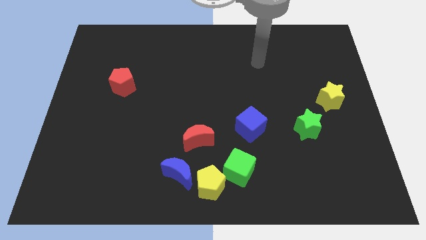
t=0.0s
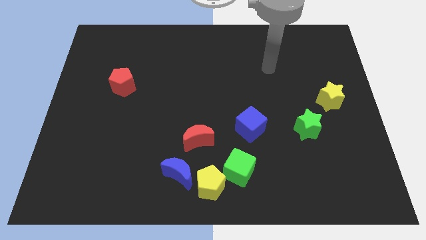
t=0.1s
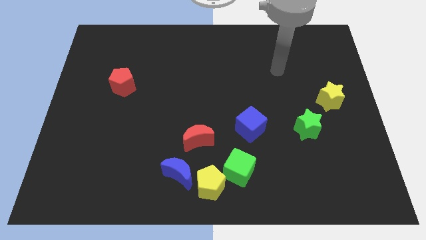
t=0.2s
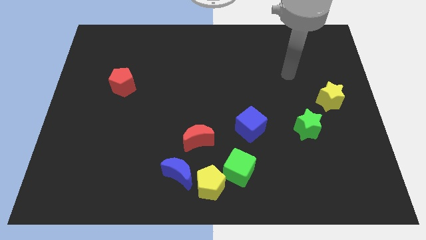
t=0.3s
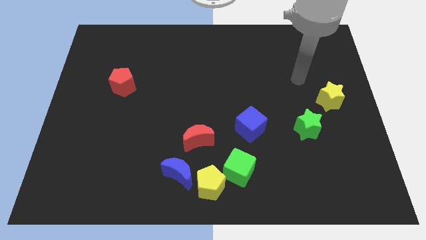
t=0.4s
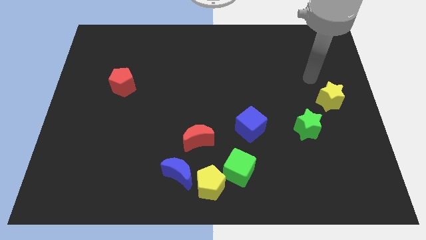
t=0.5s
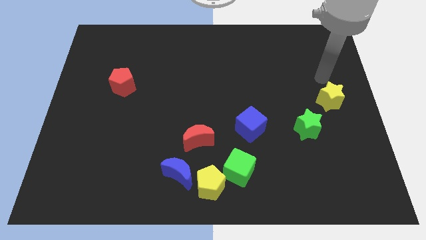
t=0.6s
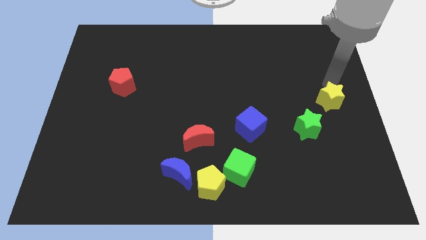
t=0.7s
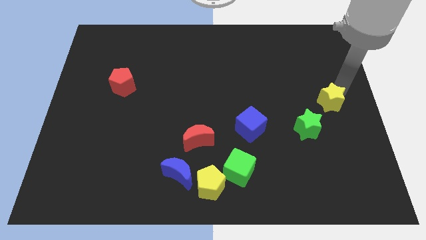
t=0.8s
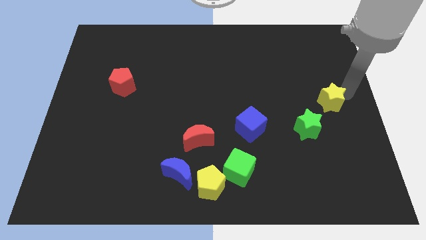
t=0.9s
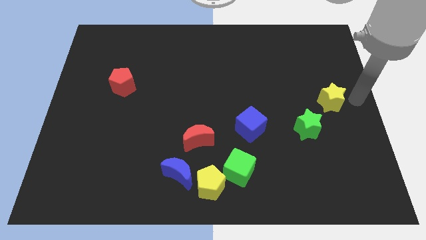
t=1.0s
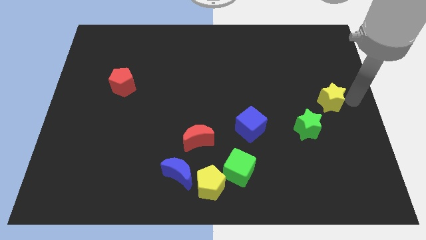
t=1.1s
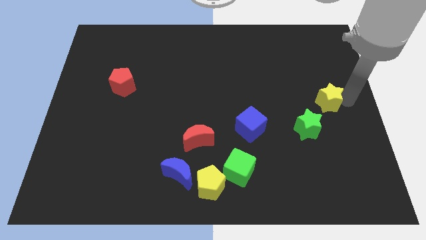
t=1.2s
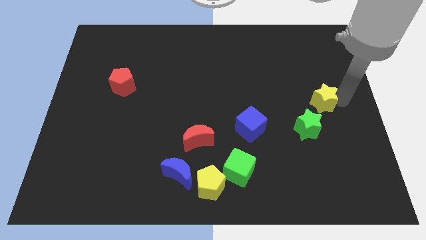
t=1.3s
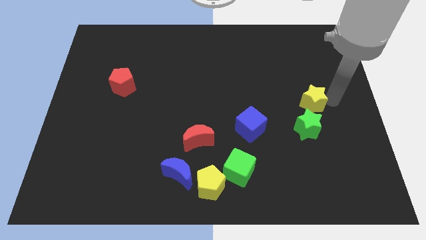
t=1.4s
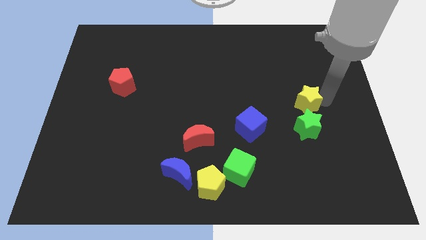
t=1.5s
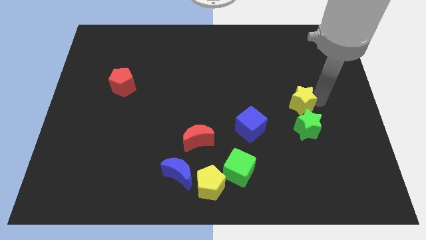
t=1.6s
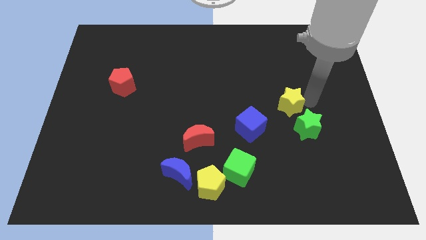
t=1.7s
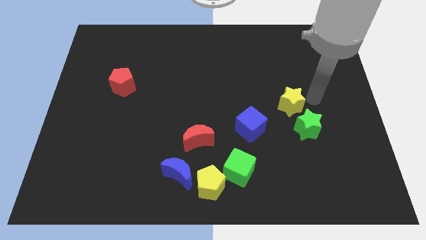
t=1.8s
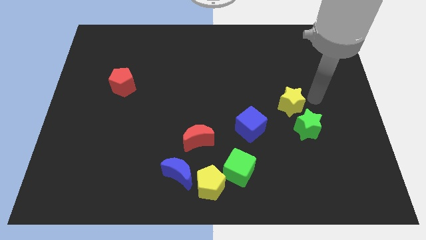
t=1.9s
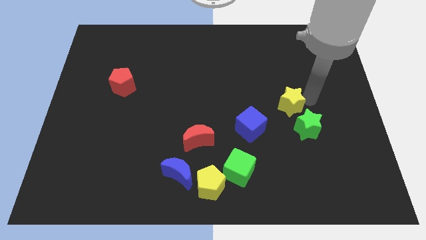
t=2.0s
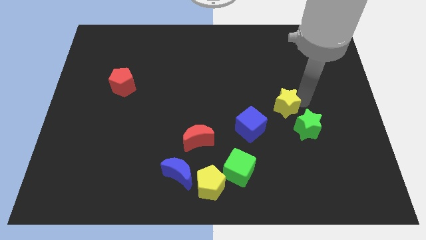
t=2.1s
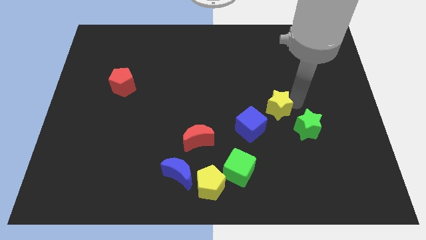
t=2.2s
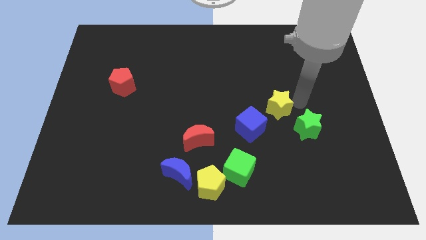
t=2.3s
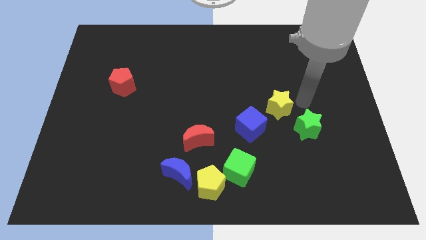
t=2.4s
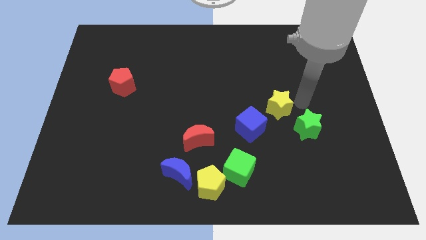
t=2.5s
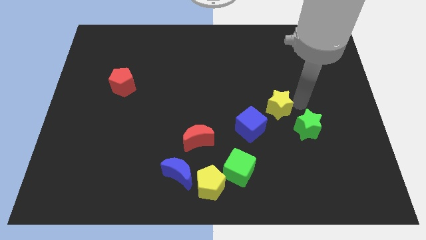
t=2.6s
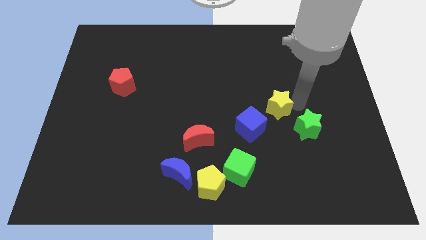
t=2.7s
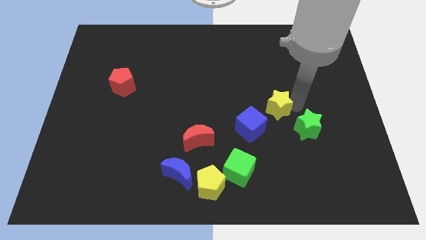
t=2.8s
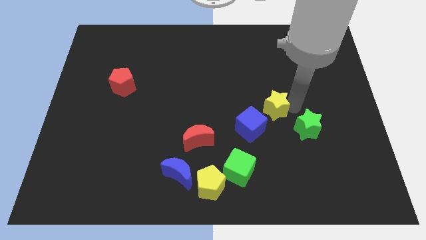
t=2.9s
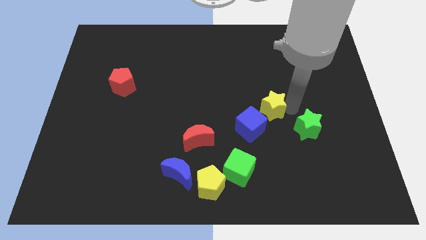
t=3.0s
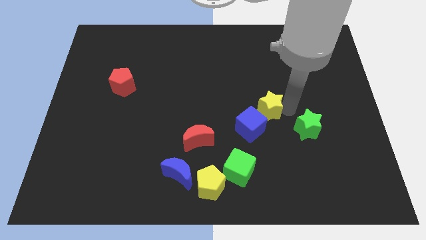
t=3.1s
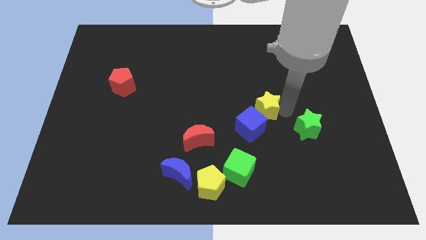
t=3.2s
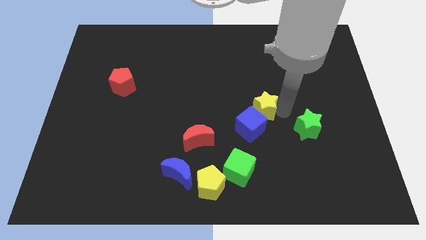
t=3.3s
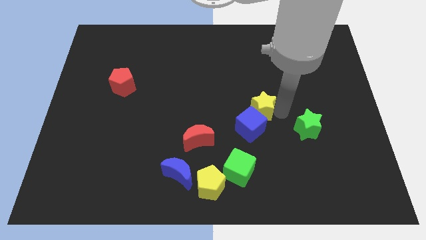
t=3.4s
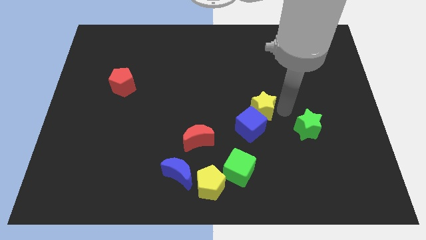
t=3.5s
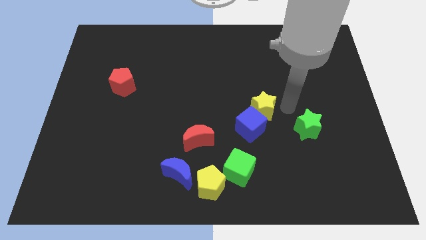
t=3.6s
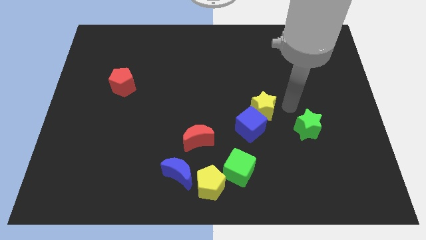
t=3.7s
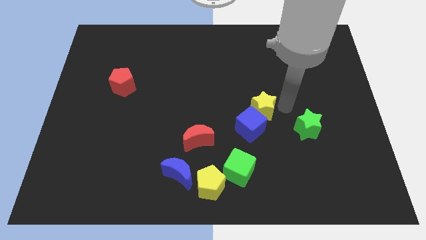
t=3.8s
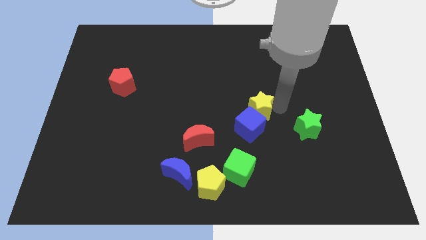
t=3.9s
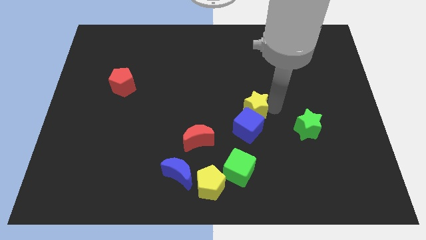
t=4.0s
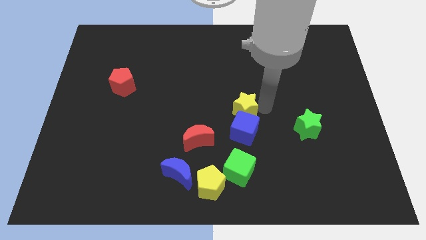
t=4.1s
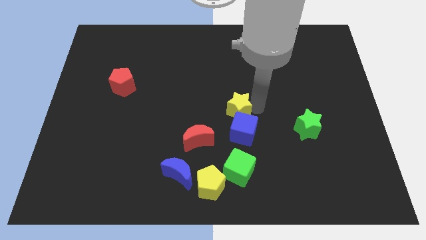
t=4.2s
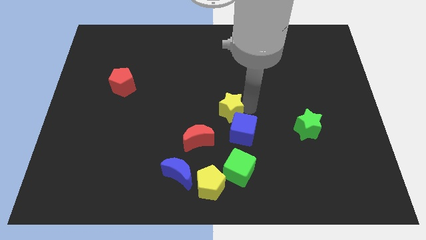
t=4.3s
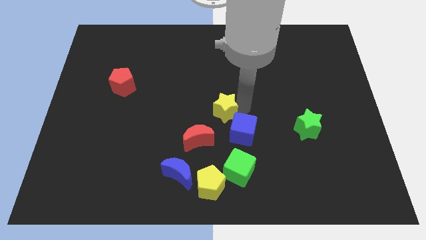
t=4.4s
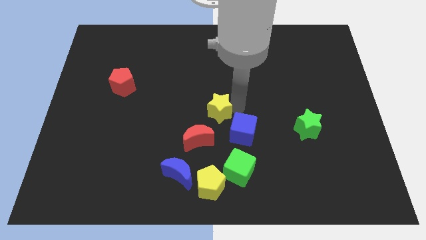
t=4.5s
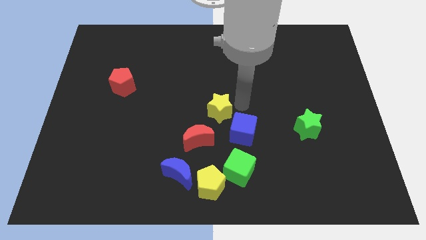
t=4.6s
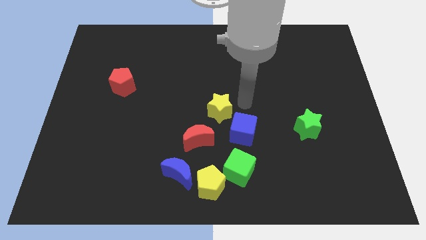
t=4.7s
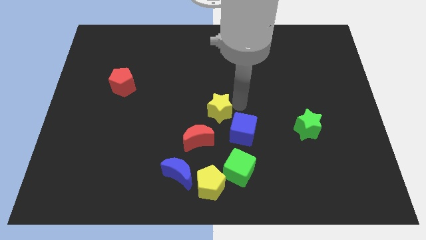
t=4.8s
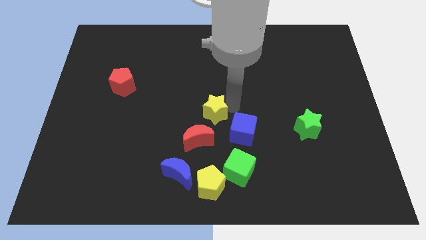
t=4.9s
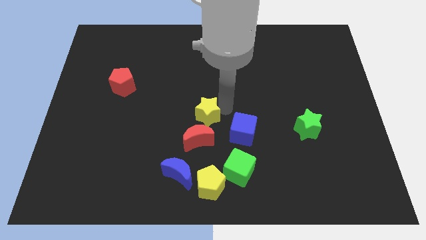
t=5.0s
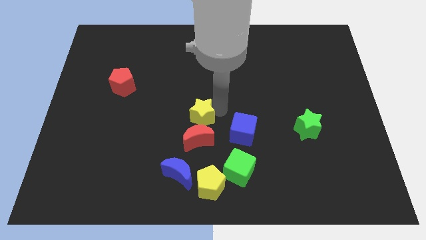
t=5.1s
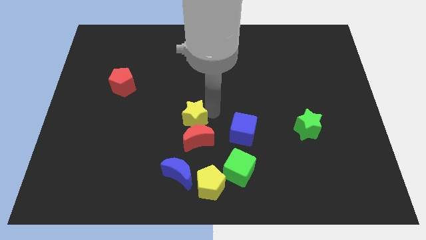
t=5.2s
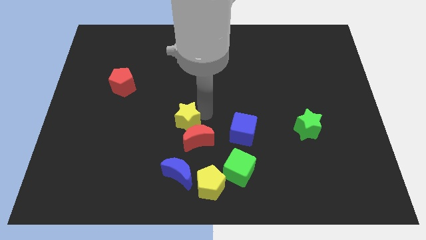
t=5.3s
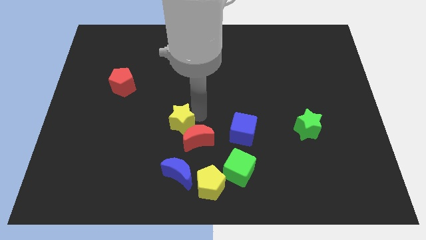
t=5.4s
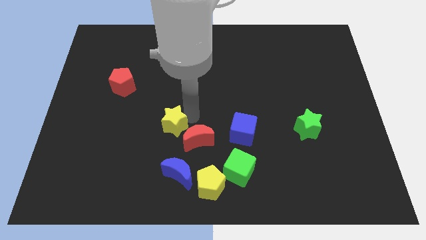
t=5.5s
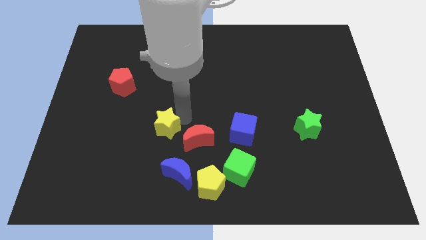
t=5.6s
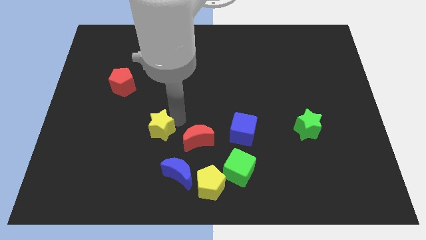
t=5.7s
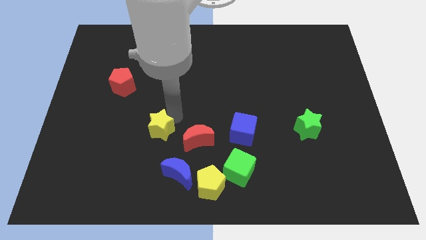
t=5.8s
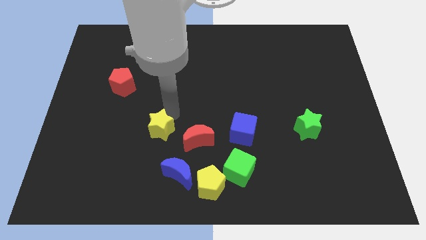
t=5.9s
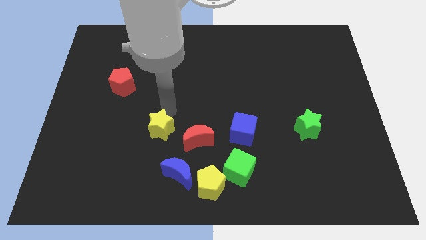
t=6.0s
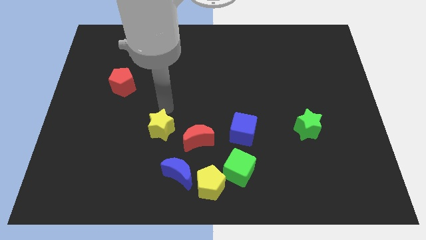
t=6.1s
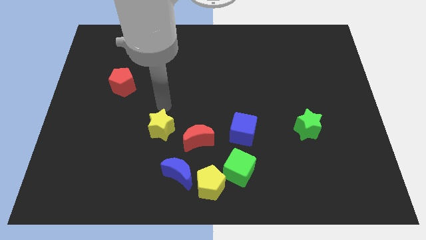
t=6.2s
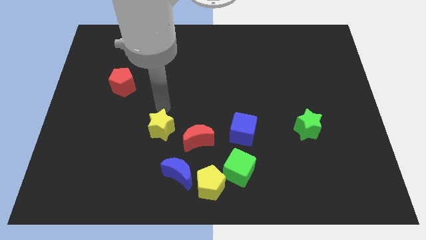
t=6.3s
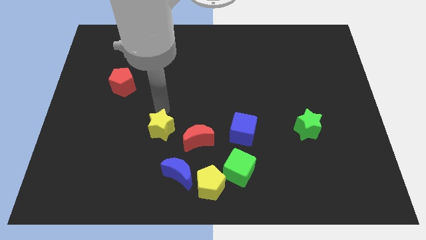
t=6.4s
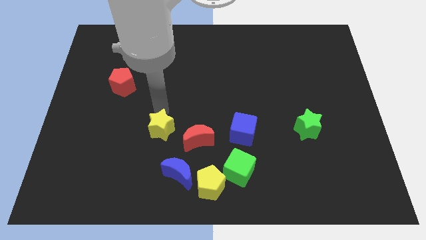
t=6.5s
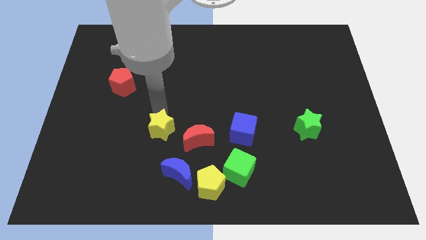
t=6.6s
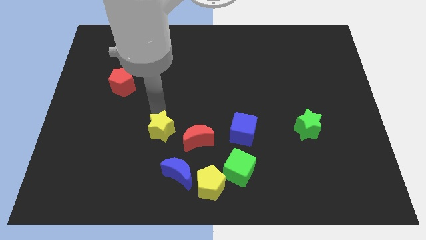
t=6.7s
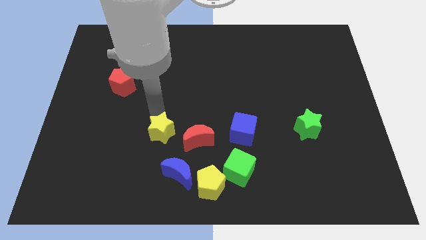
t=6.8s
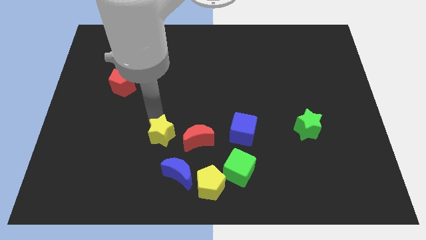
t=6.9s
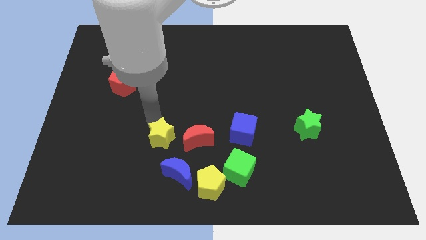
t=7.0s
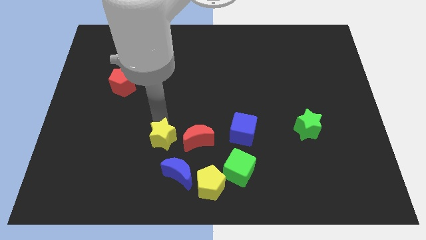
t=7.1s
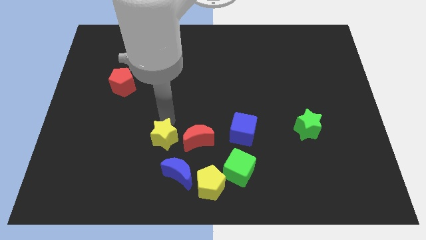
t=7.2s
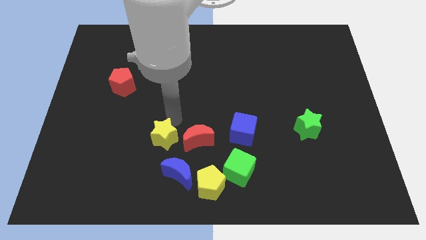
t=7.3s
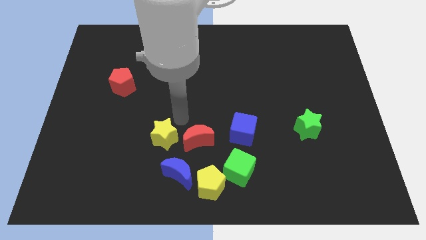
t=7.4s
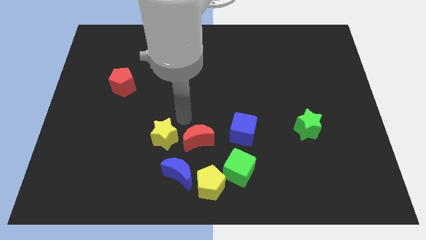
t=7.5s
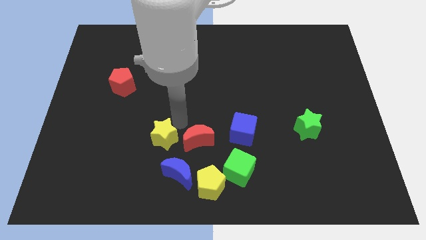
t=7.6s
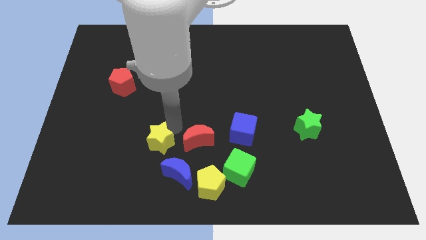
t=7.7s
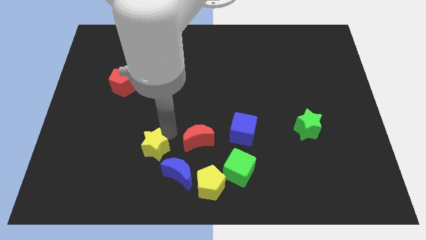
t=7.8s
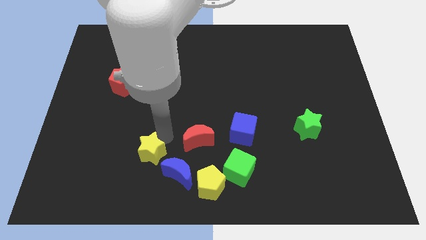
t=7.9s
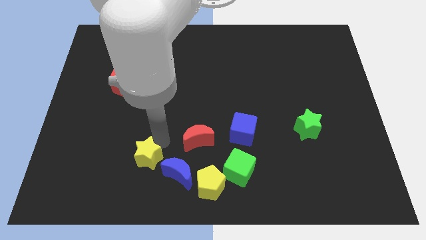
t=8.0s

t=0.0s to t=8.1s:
move the yellow star left of the blue moon
